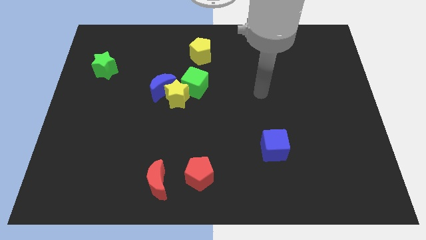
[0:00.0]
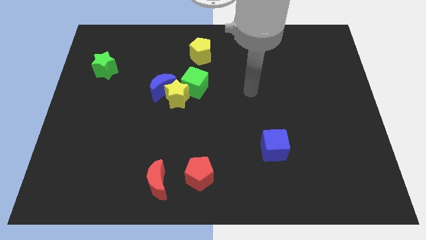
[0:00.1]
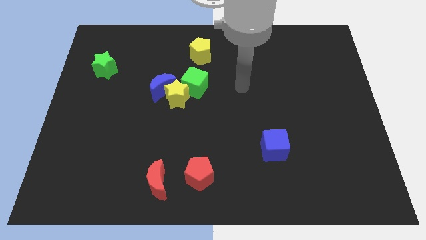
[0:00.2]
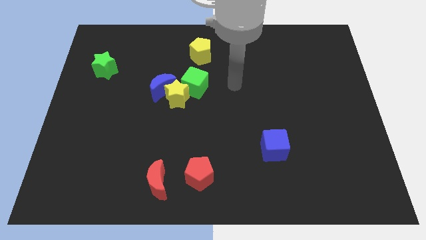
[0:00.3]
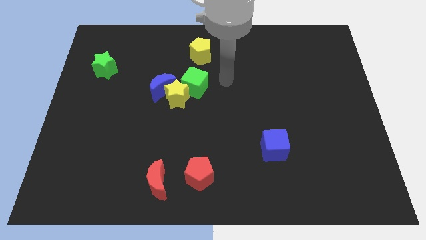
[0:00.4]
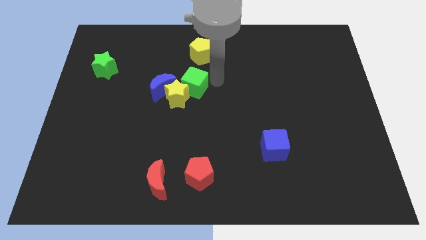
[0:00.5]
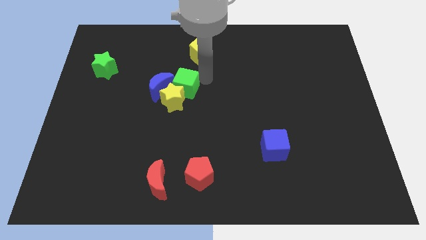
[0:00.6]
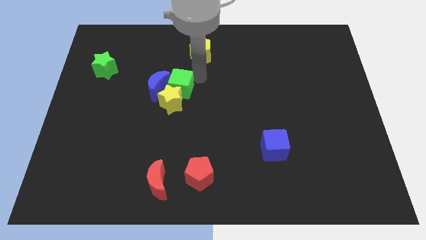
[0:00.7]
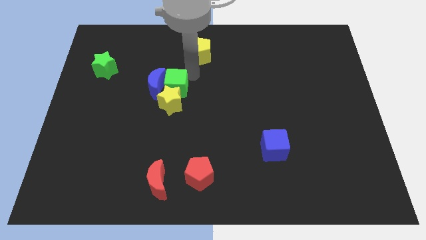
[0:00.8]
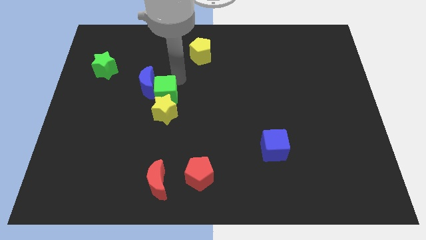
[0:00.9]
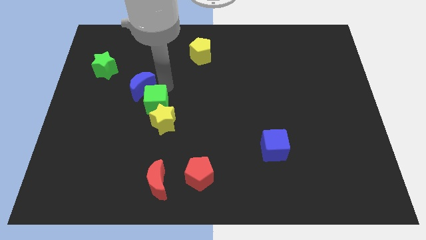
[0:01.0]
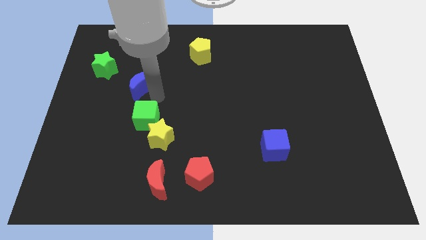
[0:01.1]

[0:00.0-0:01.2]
separate the yellow star from the blue moon and green cube

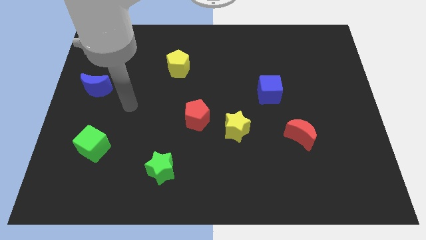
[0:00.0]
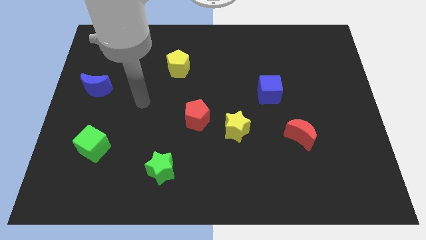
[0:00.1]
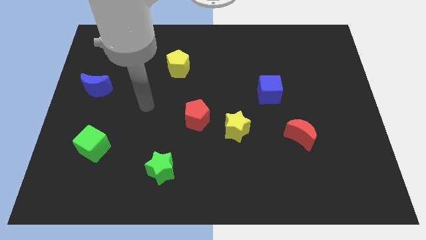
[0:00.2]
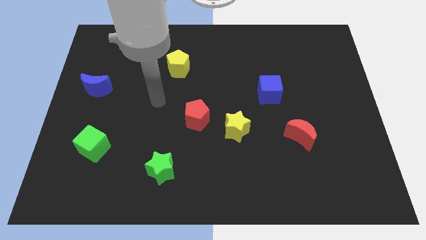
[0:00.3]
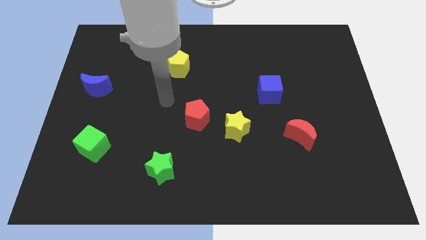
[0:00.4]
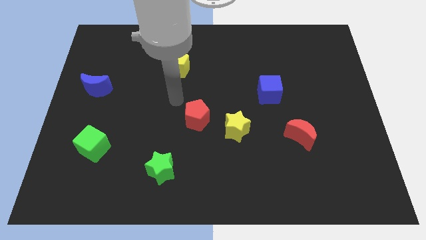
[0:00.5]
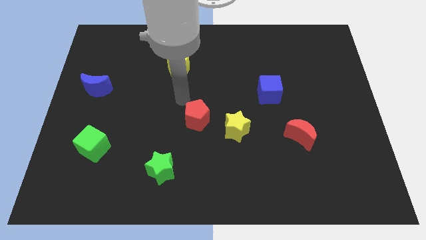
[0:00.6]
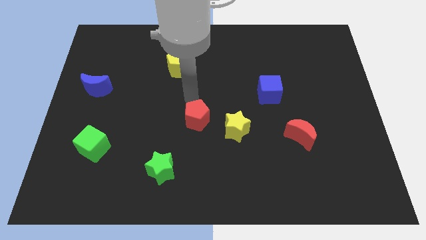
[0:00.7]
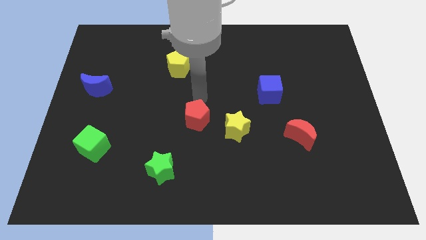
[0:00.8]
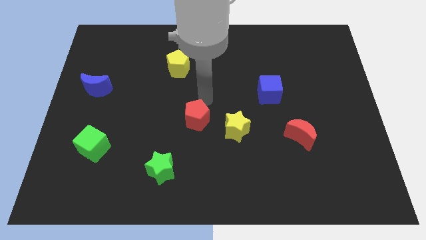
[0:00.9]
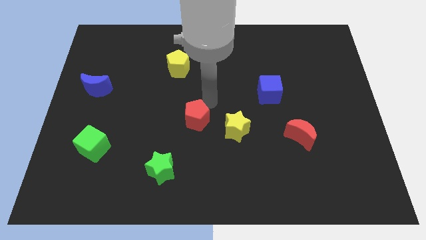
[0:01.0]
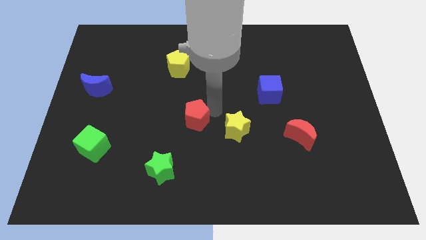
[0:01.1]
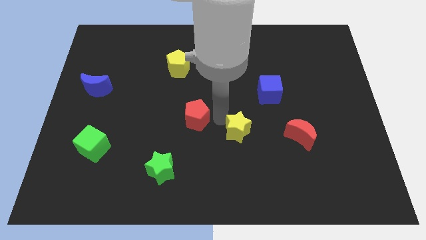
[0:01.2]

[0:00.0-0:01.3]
separate the red pentagon from the yellow star

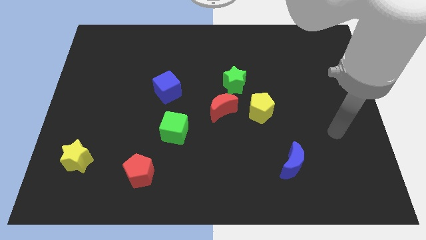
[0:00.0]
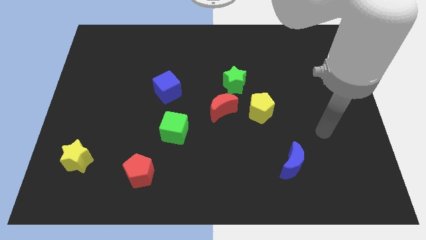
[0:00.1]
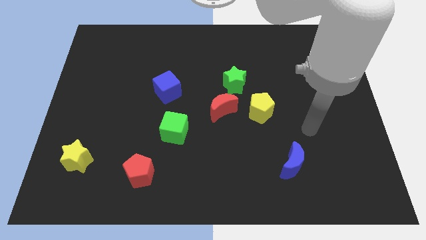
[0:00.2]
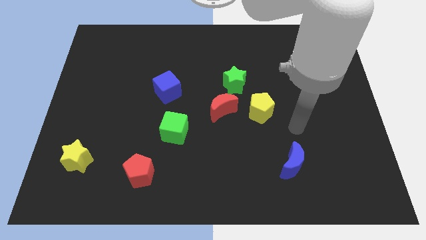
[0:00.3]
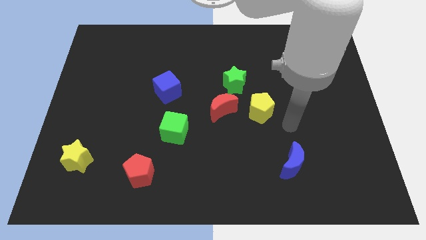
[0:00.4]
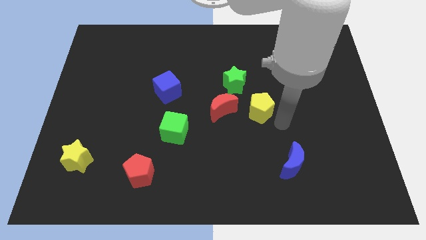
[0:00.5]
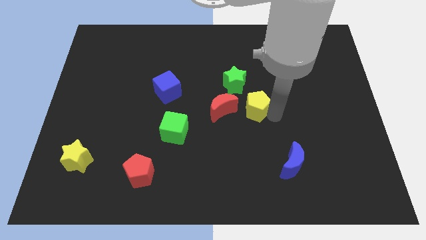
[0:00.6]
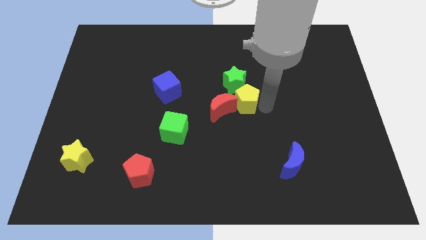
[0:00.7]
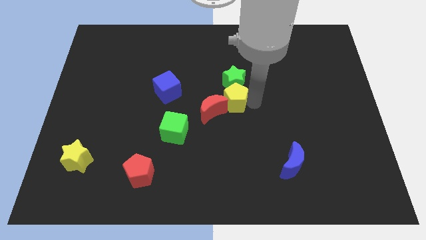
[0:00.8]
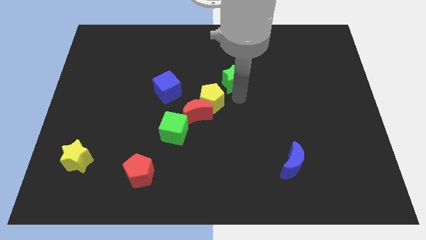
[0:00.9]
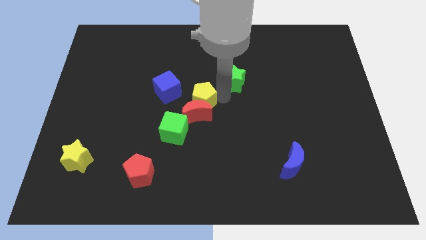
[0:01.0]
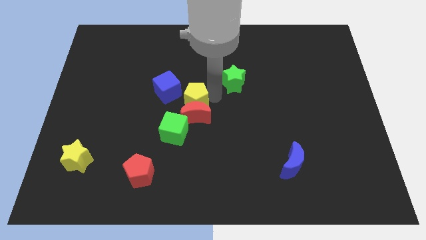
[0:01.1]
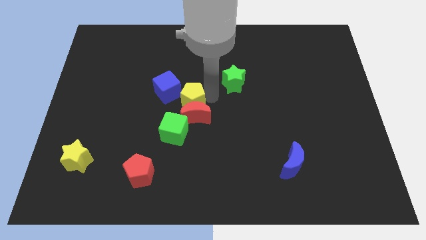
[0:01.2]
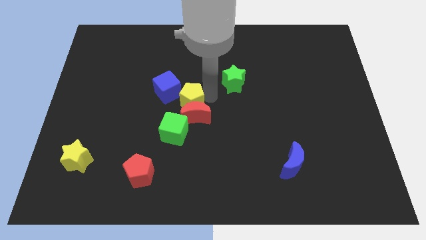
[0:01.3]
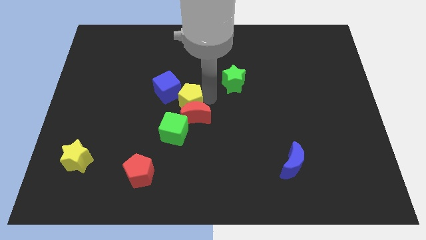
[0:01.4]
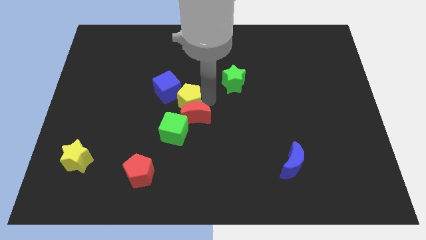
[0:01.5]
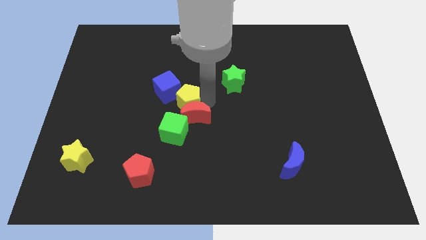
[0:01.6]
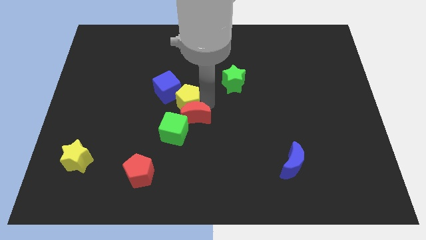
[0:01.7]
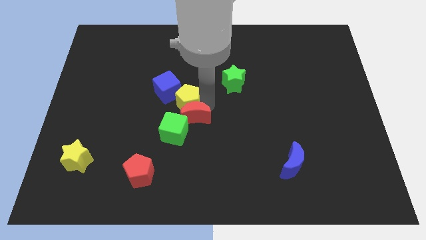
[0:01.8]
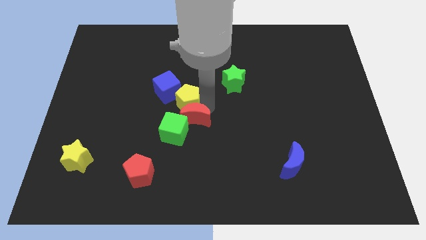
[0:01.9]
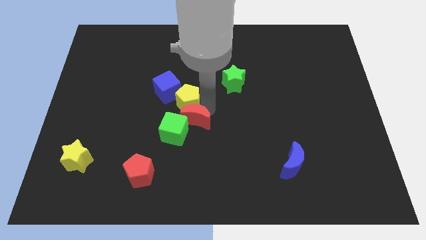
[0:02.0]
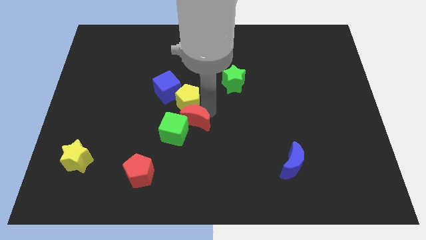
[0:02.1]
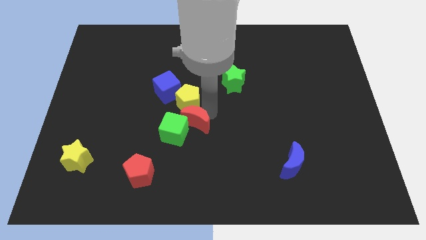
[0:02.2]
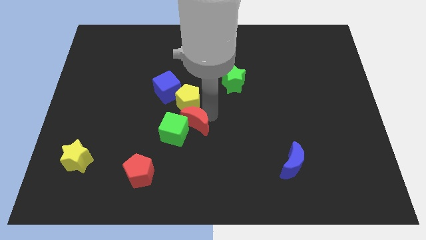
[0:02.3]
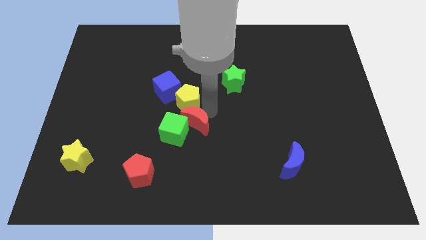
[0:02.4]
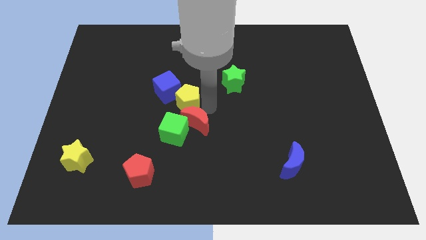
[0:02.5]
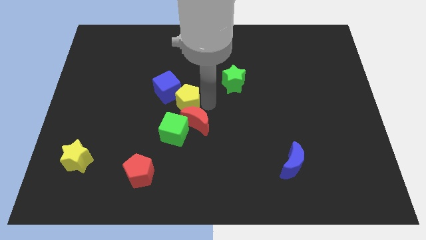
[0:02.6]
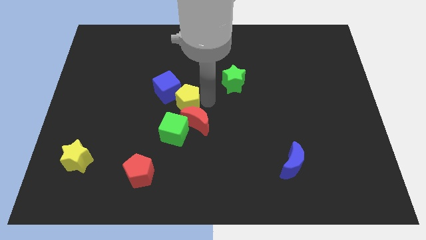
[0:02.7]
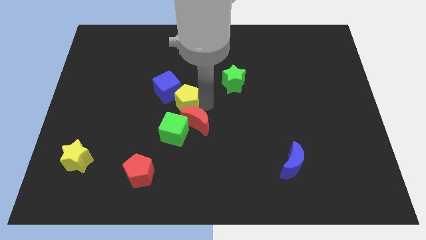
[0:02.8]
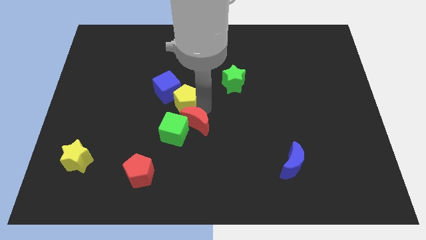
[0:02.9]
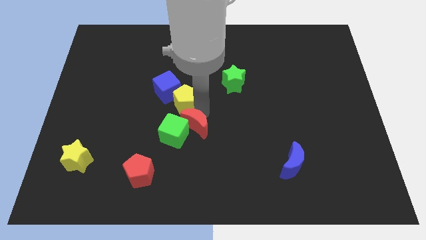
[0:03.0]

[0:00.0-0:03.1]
separate the red moon from the green star and yellow pentagon

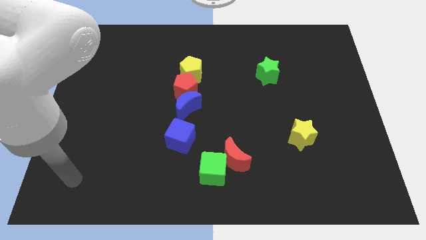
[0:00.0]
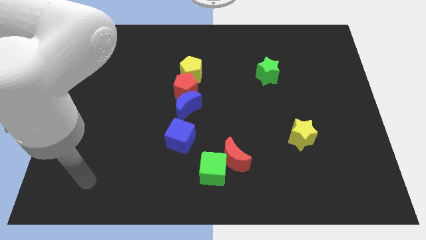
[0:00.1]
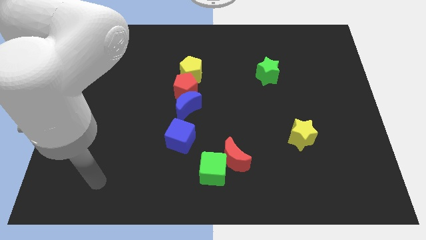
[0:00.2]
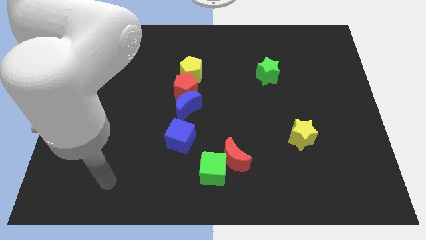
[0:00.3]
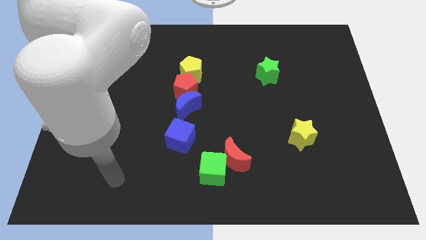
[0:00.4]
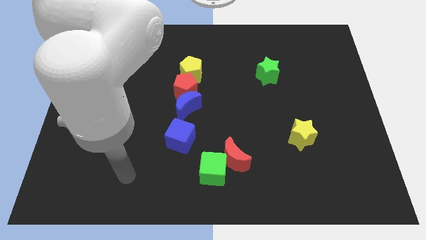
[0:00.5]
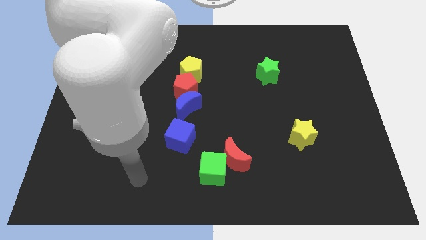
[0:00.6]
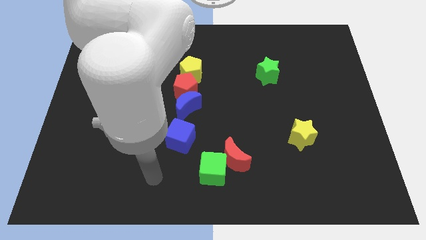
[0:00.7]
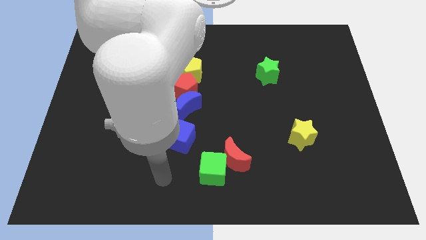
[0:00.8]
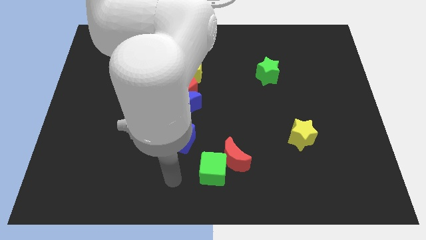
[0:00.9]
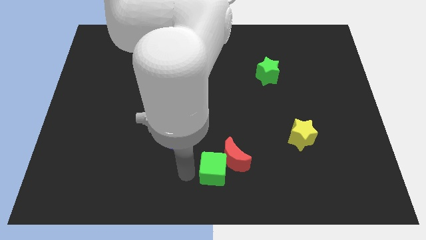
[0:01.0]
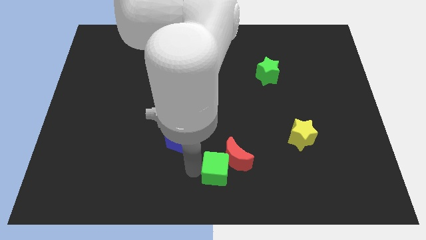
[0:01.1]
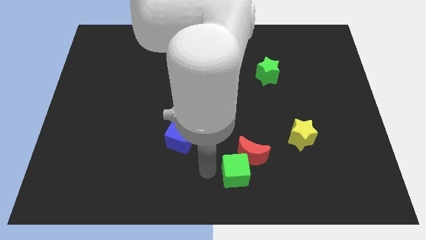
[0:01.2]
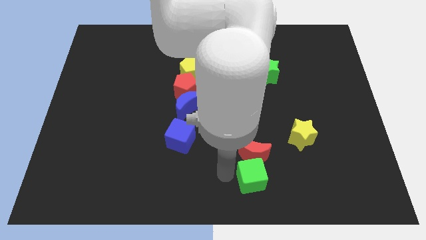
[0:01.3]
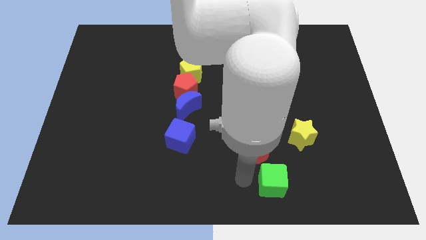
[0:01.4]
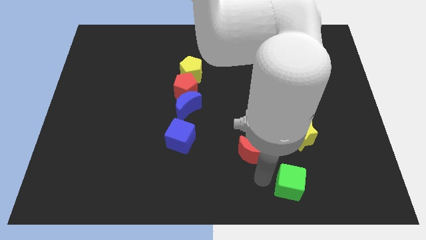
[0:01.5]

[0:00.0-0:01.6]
pull the red moon apart from the green cube

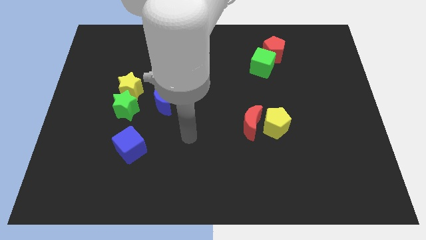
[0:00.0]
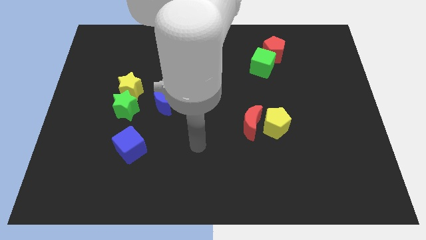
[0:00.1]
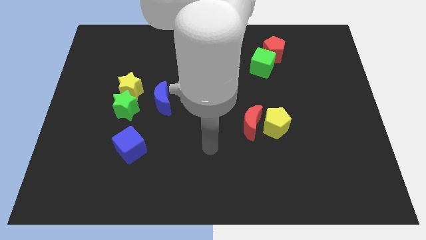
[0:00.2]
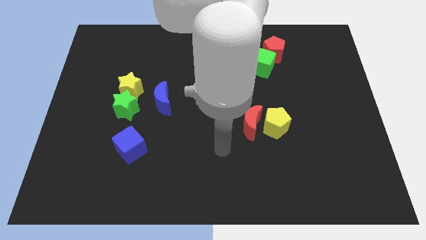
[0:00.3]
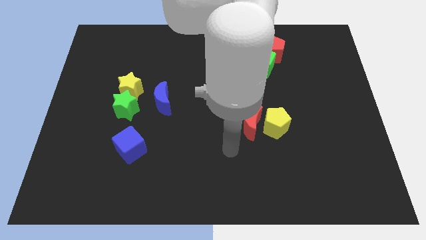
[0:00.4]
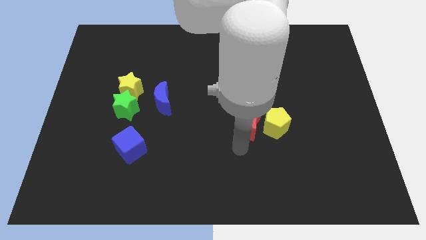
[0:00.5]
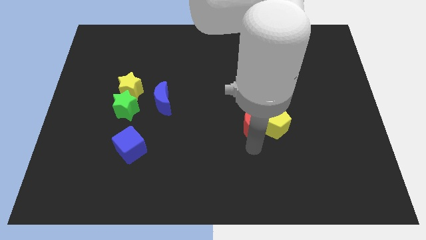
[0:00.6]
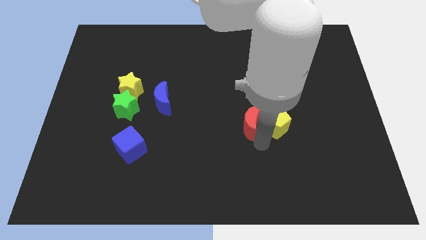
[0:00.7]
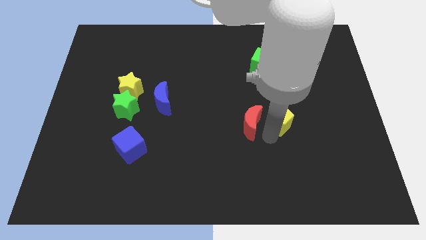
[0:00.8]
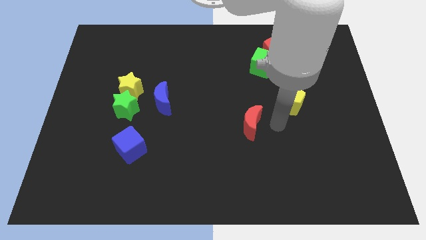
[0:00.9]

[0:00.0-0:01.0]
separate the red moon from the yellow pentagon

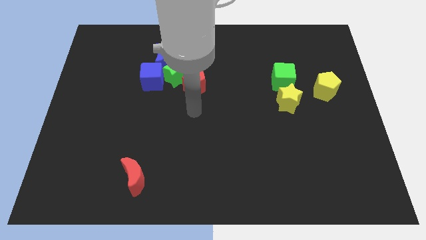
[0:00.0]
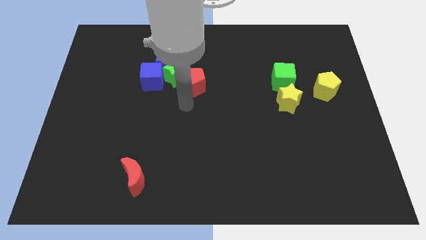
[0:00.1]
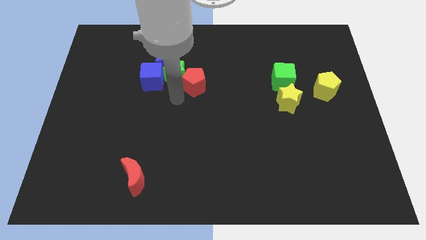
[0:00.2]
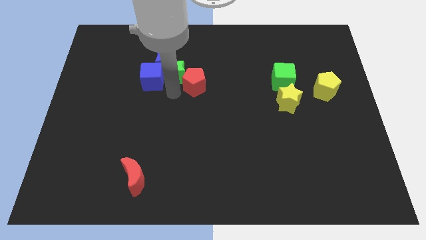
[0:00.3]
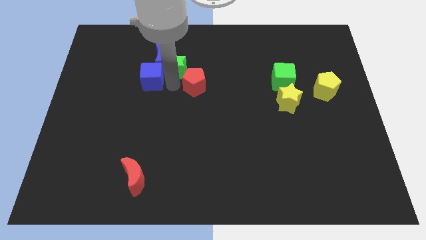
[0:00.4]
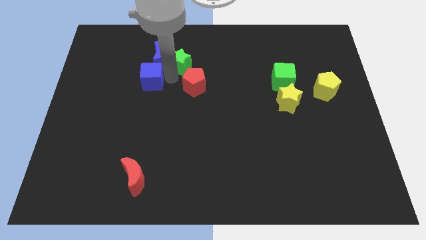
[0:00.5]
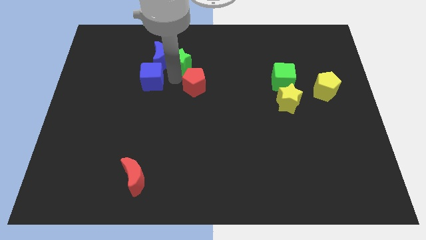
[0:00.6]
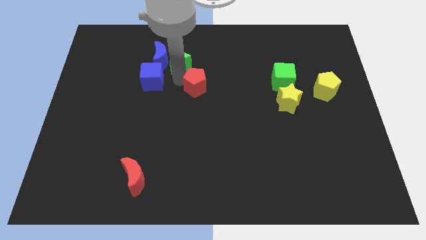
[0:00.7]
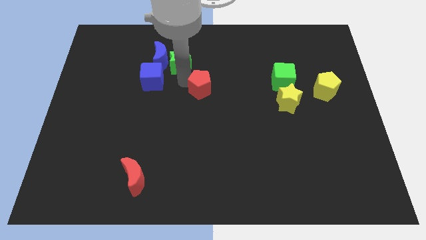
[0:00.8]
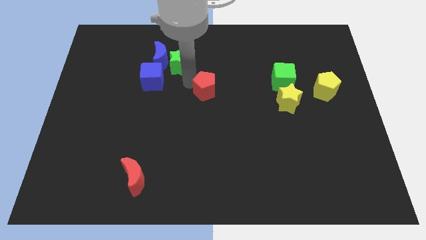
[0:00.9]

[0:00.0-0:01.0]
separate the red pentagon from the green star

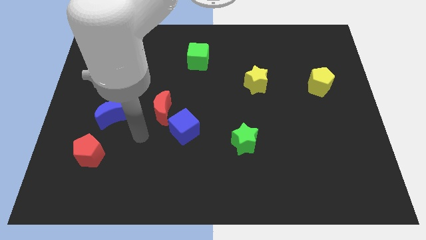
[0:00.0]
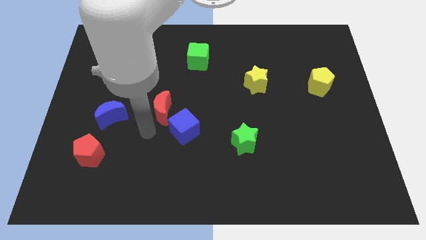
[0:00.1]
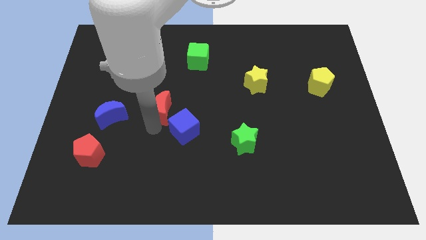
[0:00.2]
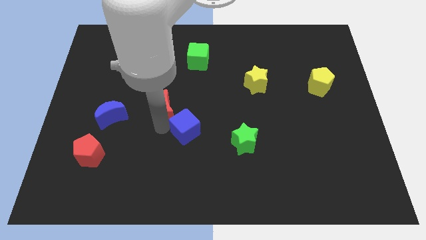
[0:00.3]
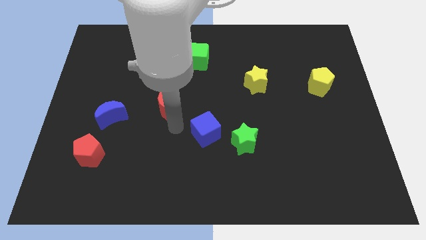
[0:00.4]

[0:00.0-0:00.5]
pull the red moon apart from the blue cube
